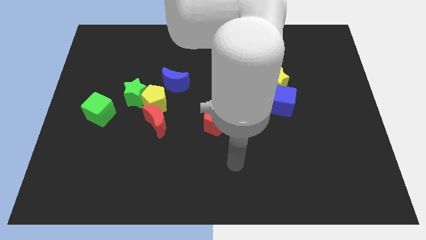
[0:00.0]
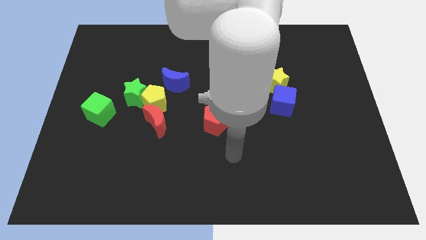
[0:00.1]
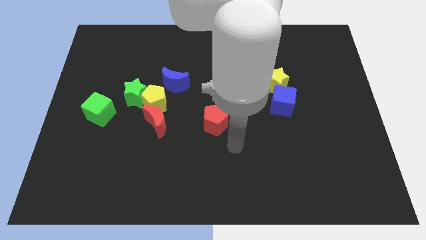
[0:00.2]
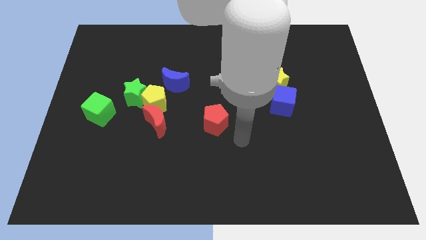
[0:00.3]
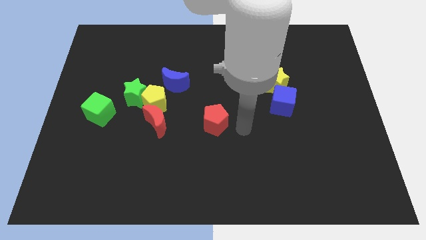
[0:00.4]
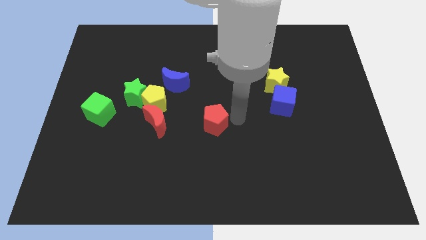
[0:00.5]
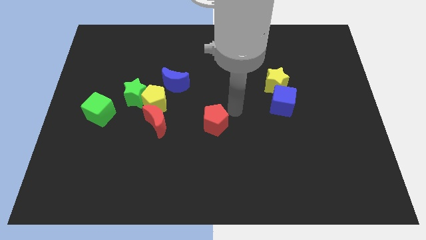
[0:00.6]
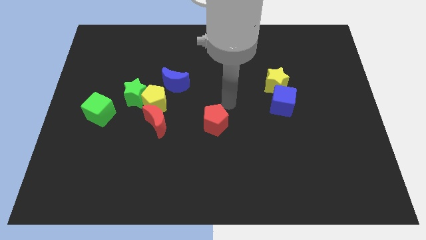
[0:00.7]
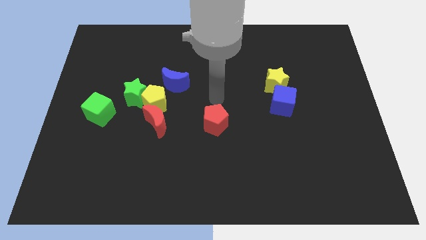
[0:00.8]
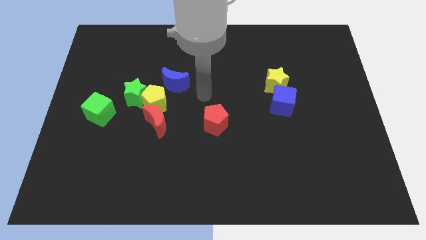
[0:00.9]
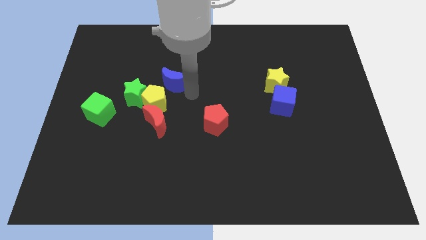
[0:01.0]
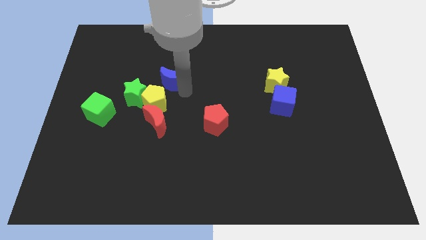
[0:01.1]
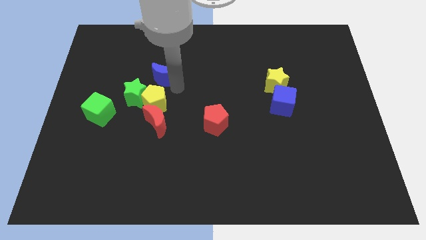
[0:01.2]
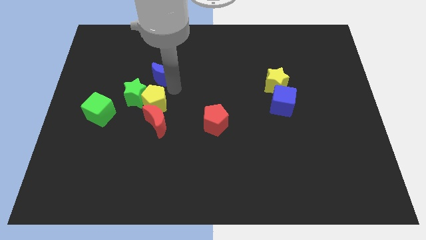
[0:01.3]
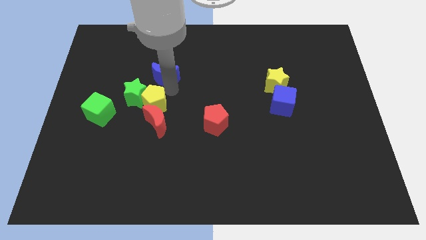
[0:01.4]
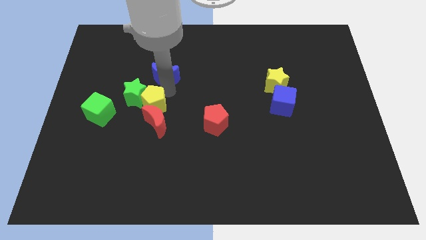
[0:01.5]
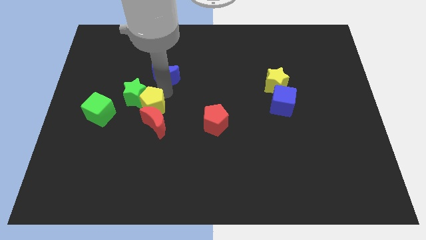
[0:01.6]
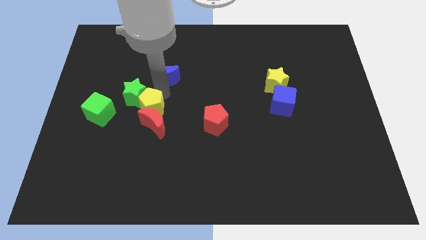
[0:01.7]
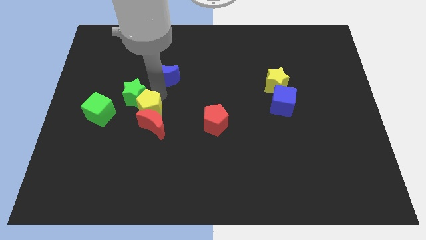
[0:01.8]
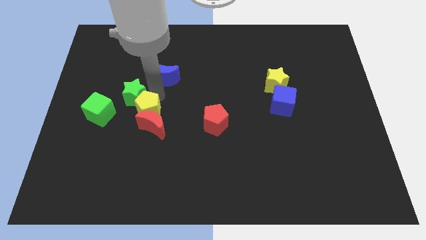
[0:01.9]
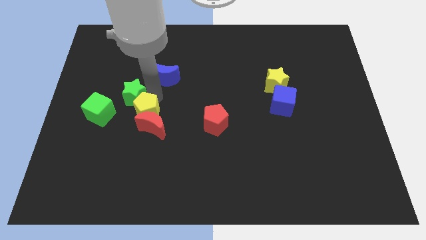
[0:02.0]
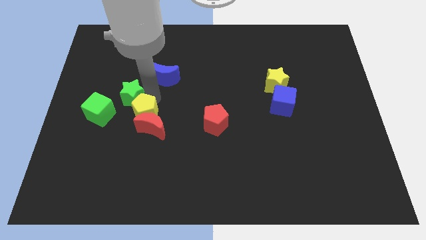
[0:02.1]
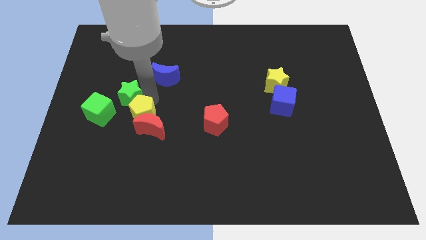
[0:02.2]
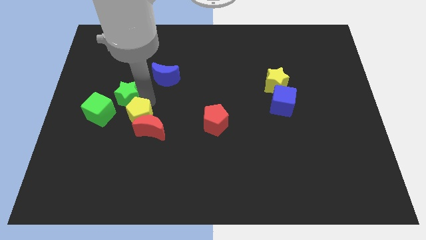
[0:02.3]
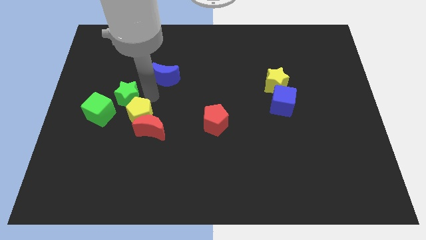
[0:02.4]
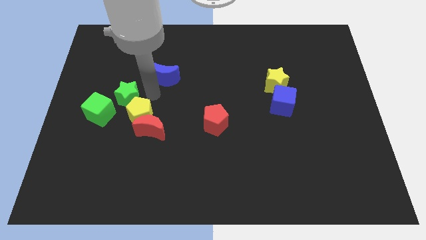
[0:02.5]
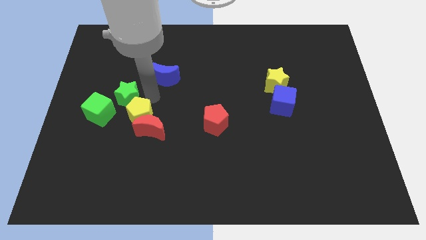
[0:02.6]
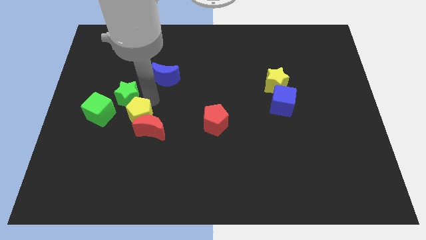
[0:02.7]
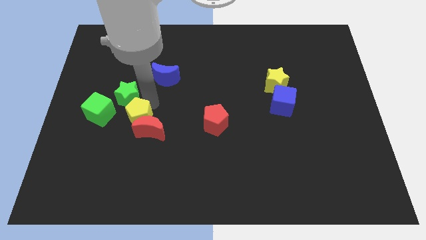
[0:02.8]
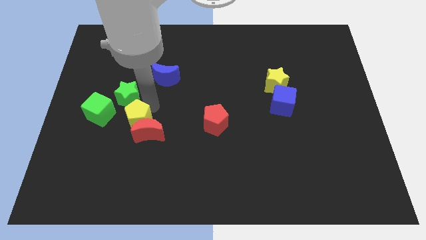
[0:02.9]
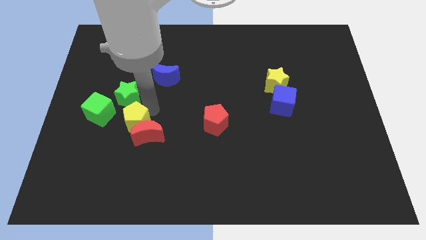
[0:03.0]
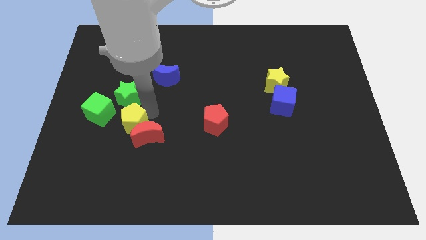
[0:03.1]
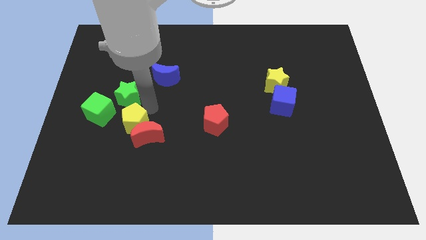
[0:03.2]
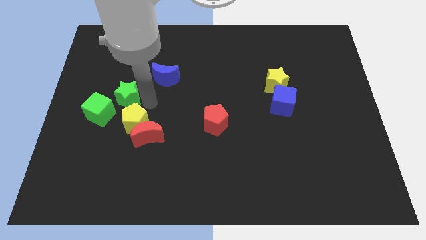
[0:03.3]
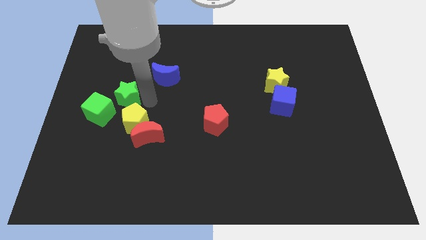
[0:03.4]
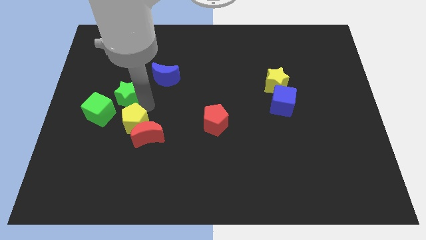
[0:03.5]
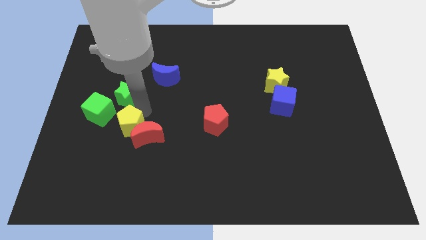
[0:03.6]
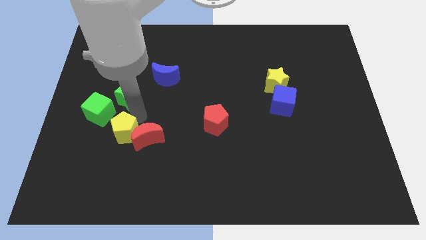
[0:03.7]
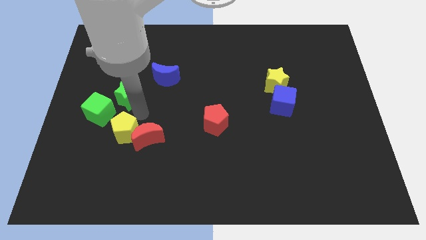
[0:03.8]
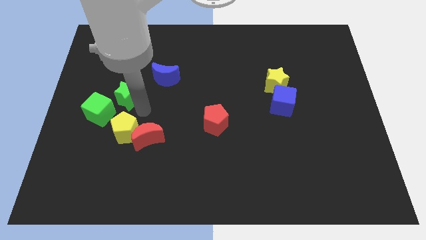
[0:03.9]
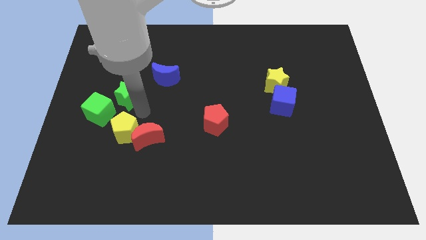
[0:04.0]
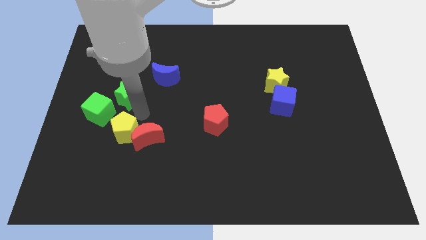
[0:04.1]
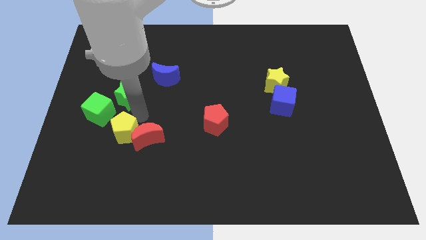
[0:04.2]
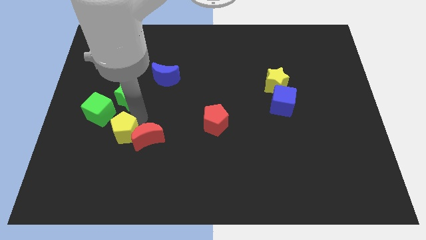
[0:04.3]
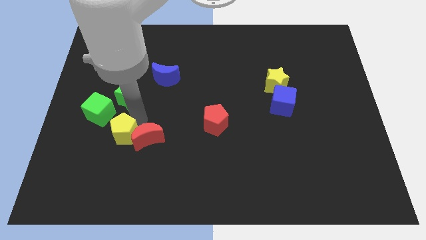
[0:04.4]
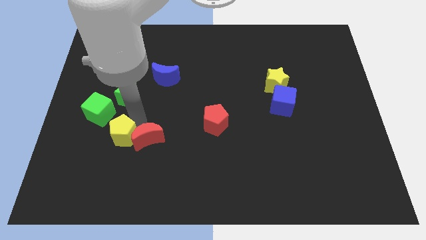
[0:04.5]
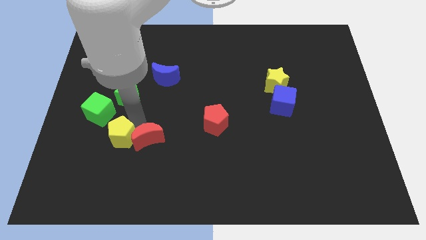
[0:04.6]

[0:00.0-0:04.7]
pull the yellow pentagon apart from the group of blocks

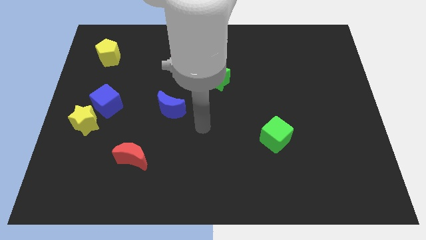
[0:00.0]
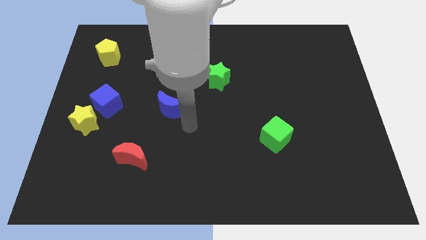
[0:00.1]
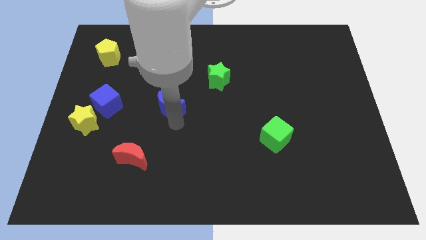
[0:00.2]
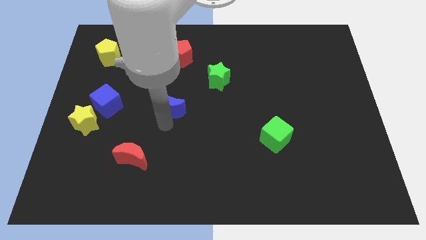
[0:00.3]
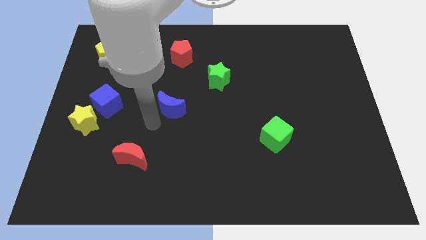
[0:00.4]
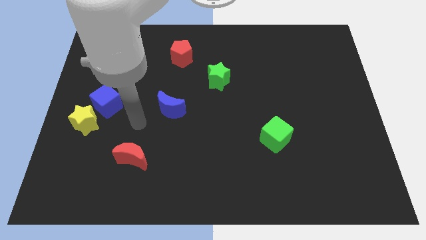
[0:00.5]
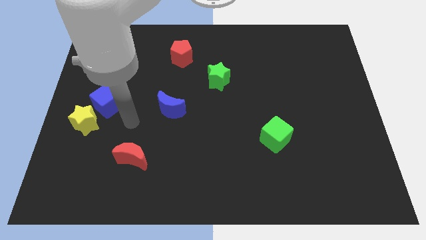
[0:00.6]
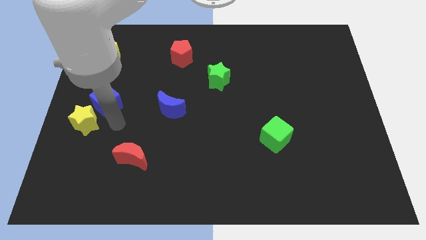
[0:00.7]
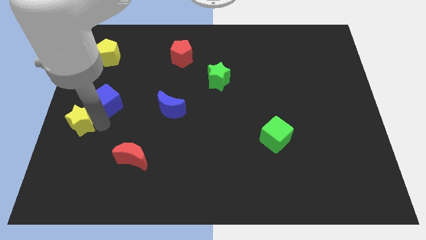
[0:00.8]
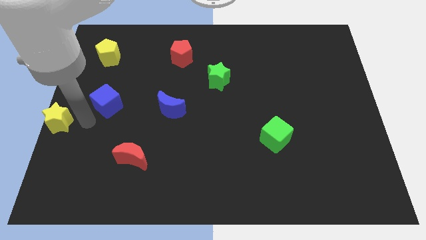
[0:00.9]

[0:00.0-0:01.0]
move the blue cube away from the yellow star

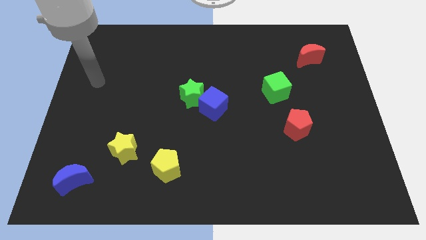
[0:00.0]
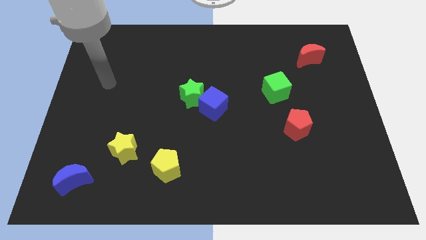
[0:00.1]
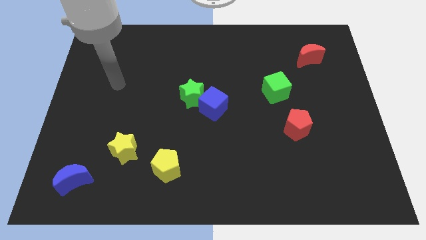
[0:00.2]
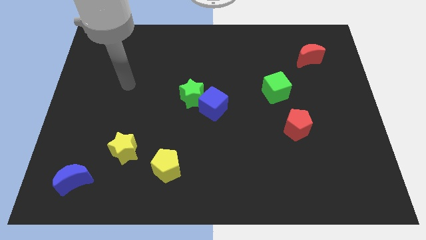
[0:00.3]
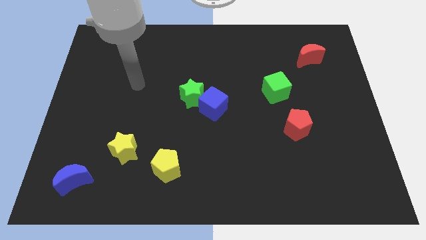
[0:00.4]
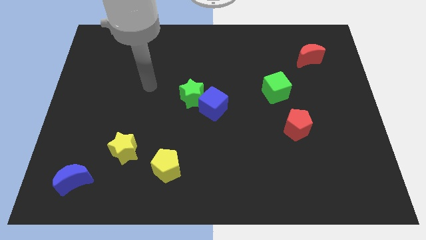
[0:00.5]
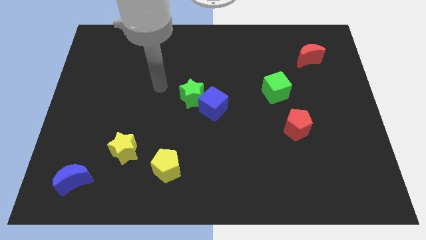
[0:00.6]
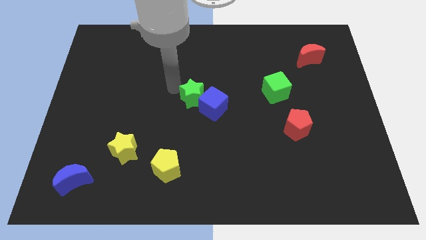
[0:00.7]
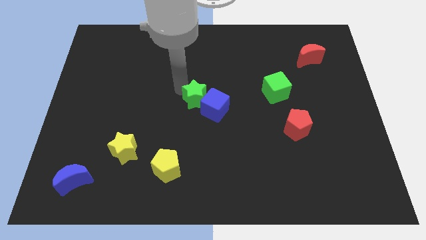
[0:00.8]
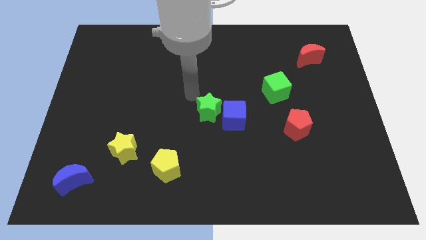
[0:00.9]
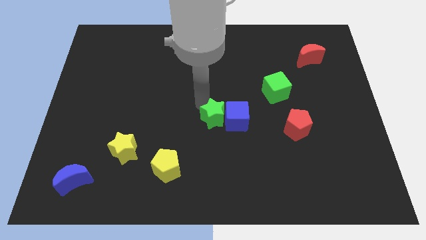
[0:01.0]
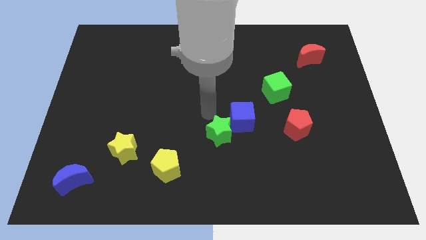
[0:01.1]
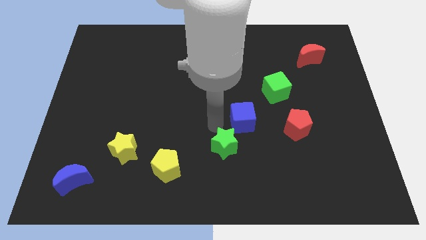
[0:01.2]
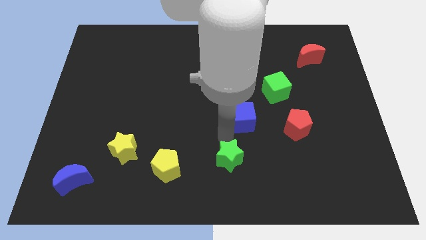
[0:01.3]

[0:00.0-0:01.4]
pull the blue cube apart from the green star

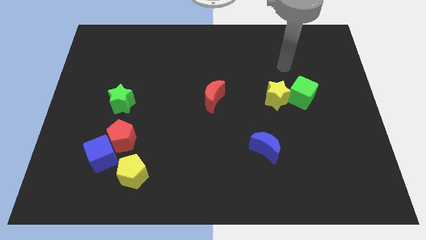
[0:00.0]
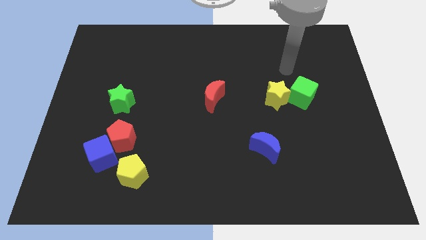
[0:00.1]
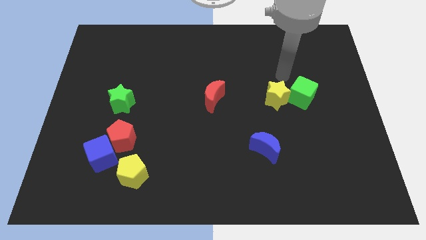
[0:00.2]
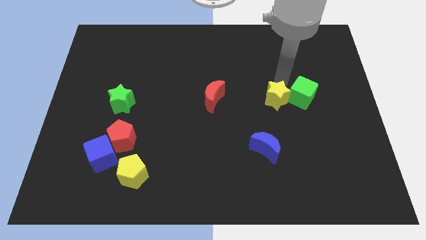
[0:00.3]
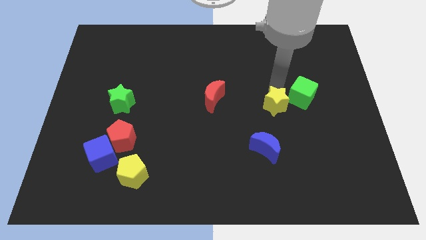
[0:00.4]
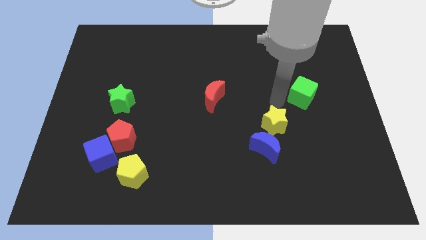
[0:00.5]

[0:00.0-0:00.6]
move the green cube away from the yellow star

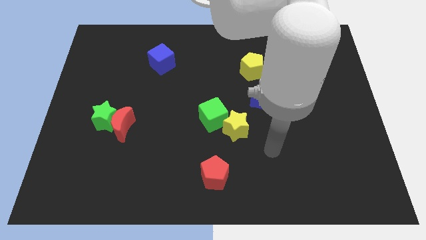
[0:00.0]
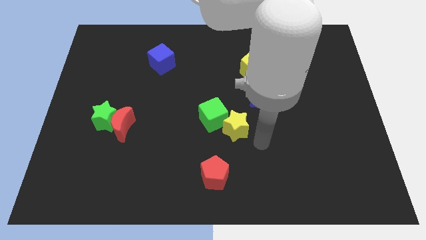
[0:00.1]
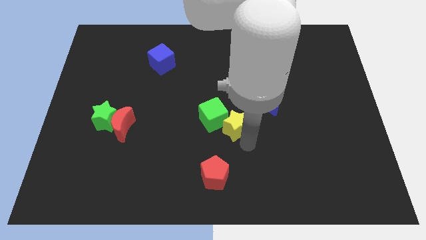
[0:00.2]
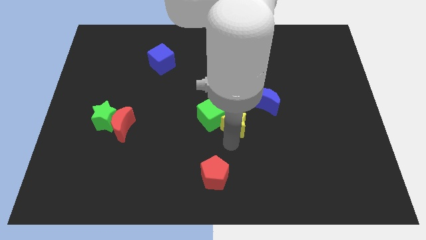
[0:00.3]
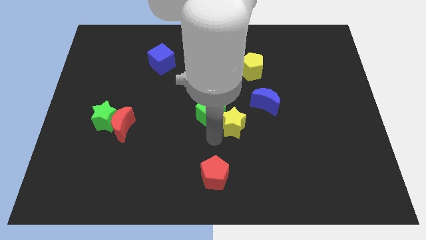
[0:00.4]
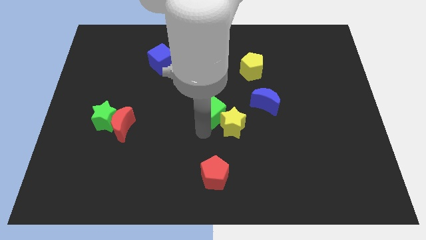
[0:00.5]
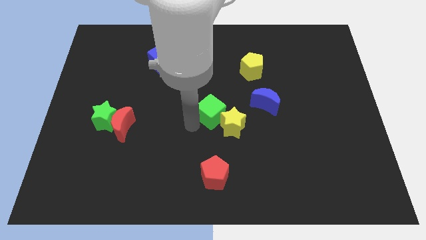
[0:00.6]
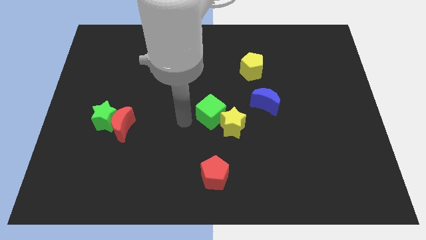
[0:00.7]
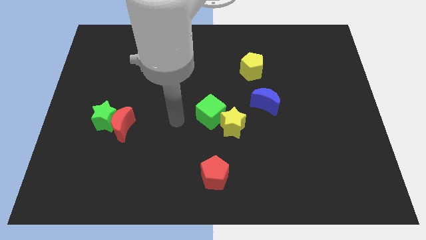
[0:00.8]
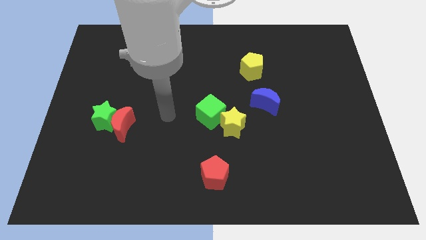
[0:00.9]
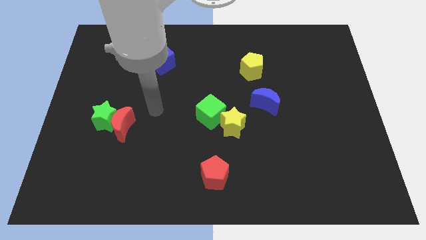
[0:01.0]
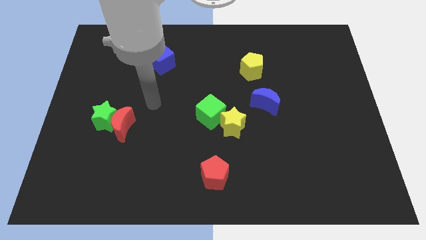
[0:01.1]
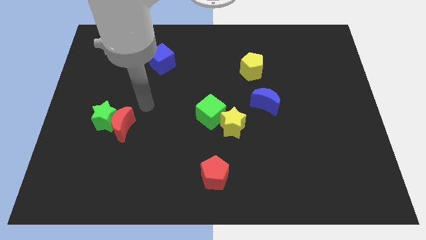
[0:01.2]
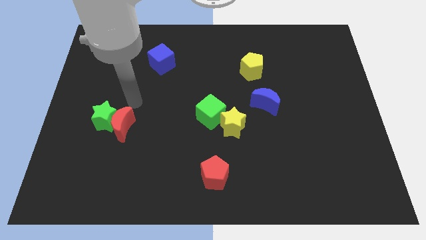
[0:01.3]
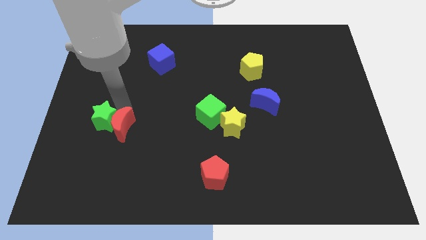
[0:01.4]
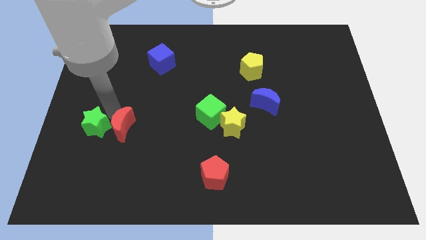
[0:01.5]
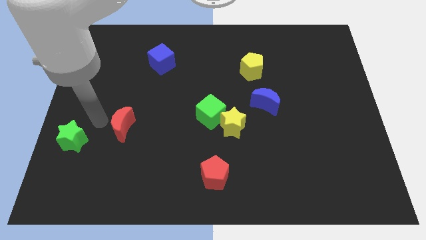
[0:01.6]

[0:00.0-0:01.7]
separate the red moon from the green star
